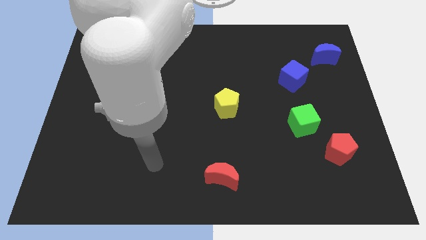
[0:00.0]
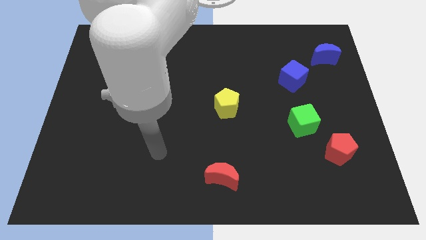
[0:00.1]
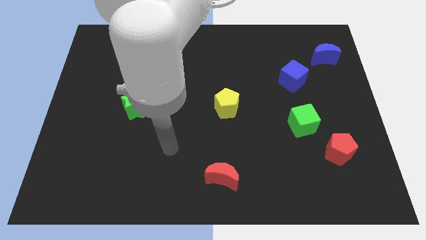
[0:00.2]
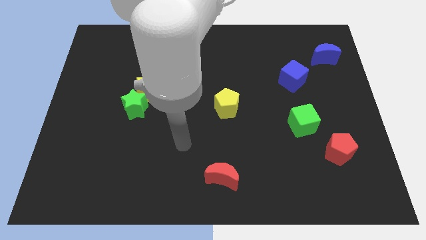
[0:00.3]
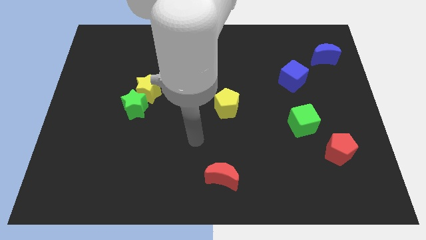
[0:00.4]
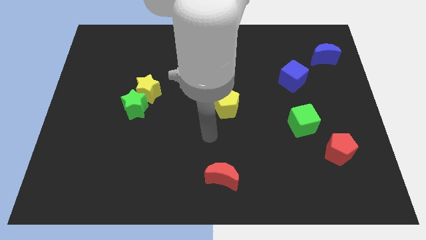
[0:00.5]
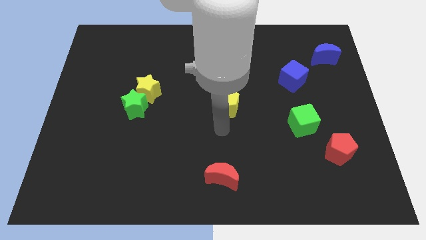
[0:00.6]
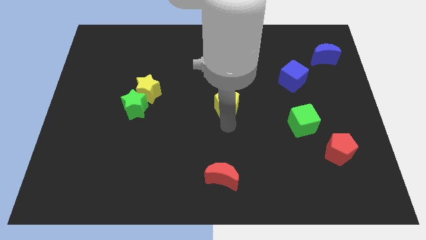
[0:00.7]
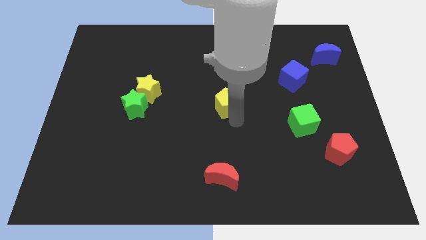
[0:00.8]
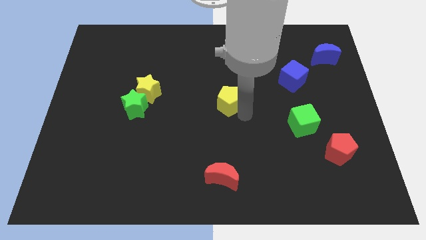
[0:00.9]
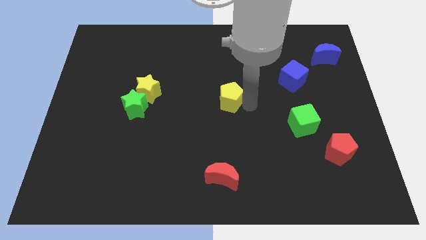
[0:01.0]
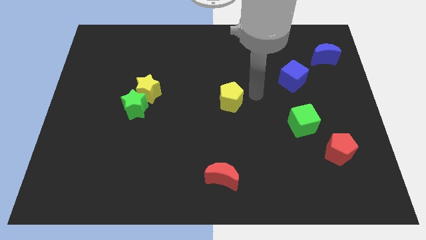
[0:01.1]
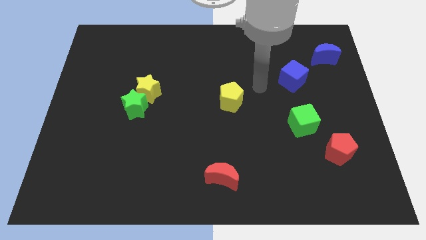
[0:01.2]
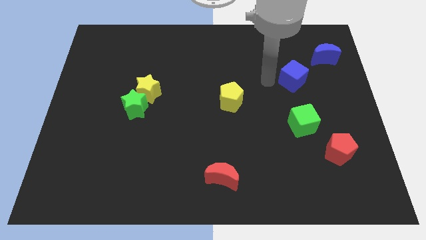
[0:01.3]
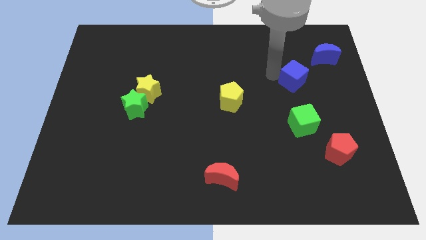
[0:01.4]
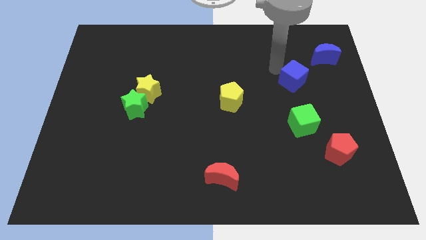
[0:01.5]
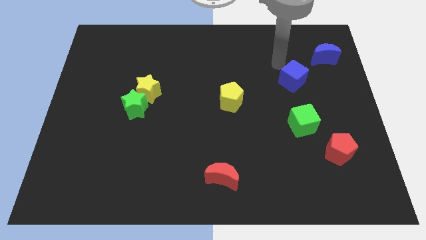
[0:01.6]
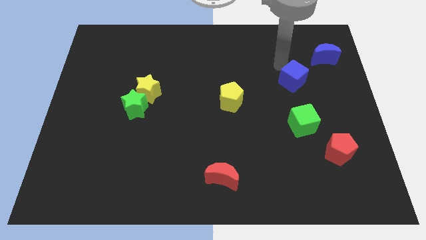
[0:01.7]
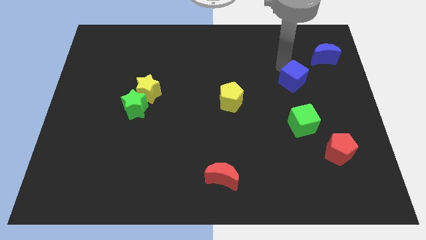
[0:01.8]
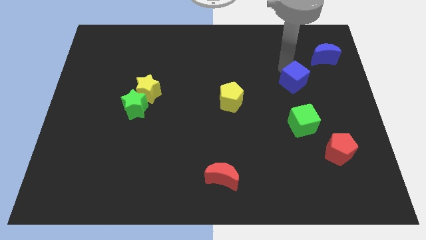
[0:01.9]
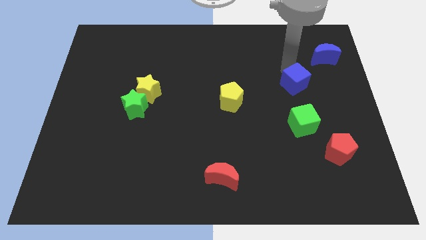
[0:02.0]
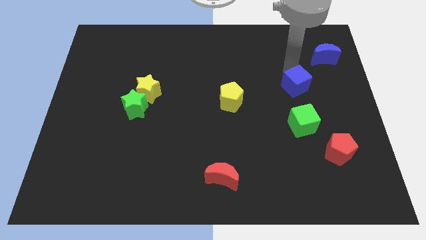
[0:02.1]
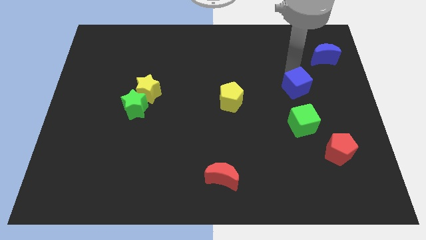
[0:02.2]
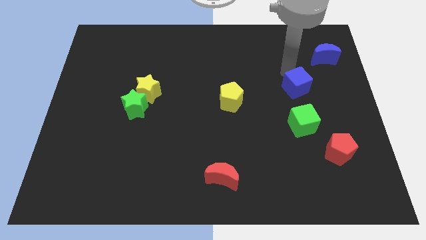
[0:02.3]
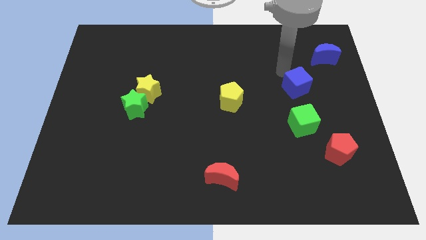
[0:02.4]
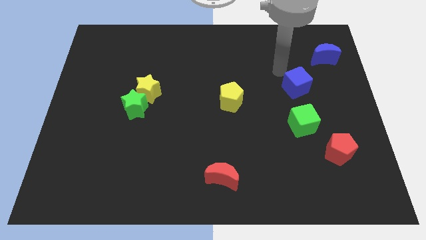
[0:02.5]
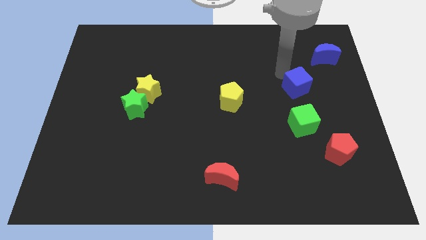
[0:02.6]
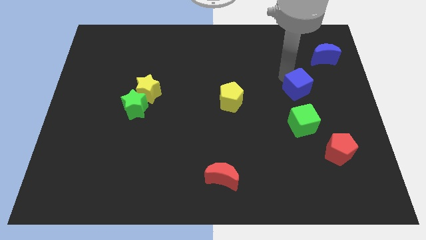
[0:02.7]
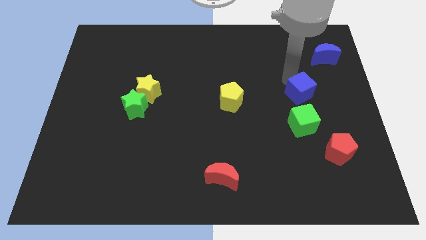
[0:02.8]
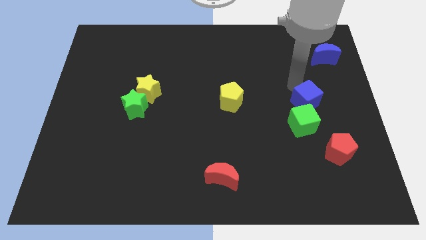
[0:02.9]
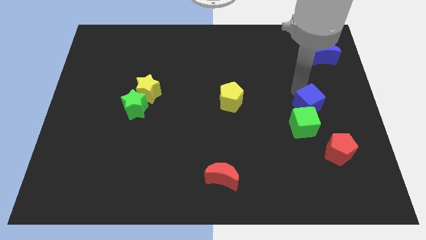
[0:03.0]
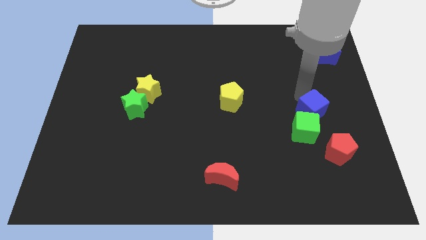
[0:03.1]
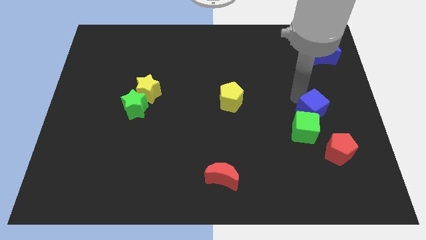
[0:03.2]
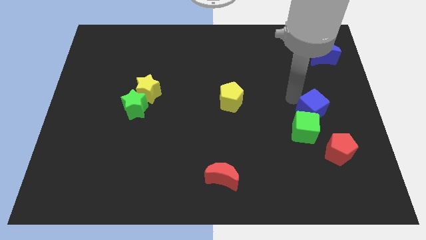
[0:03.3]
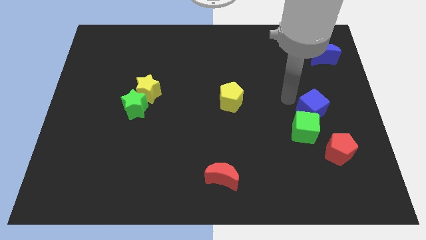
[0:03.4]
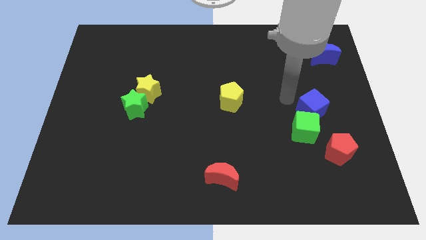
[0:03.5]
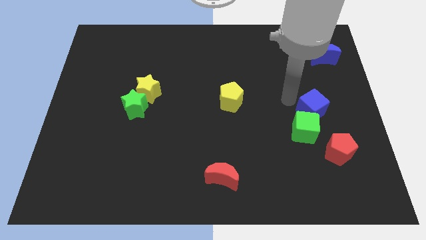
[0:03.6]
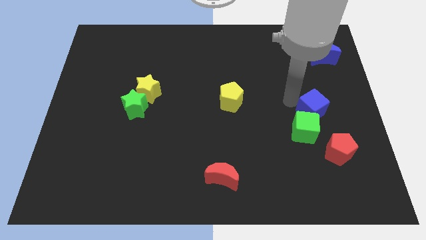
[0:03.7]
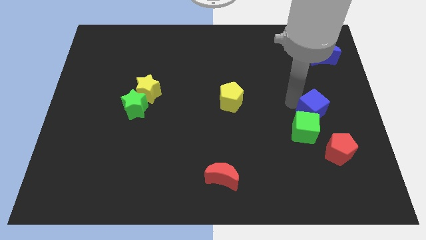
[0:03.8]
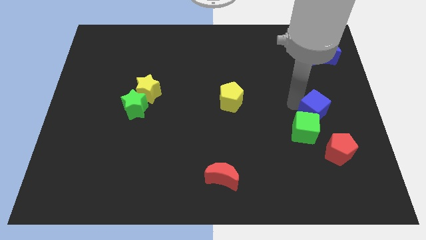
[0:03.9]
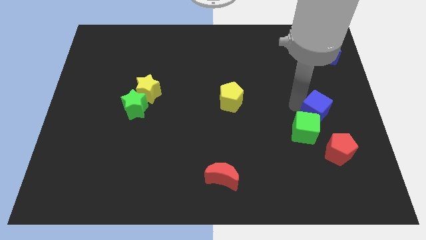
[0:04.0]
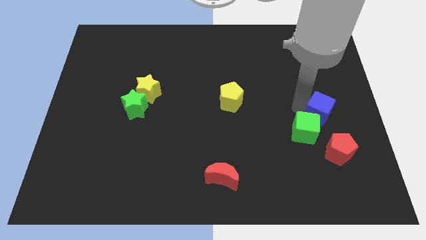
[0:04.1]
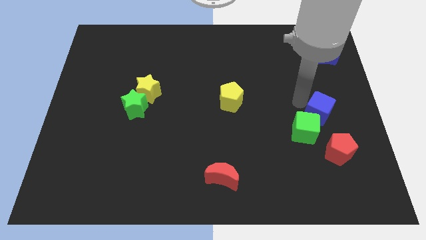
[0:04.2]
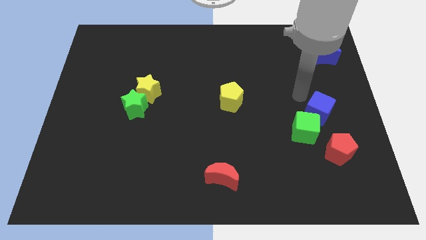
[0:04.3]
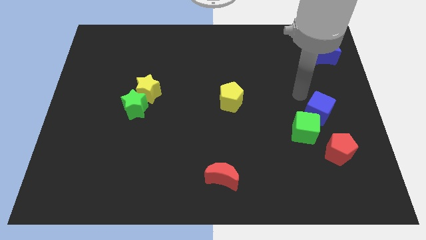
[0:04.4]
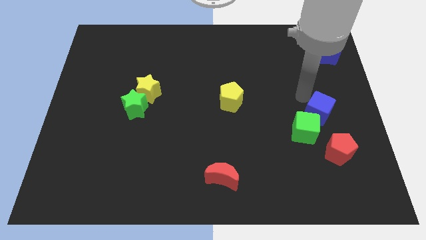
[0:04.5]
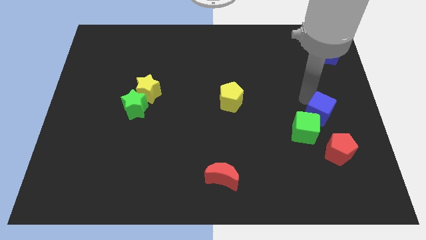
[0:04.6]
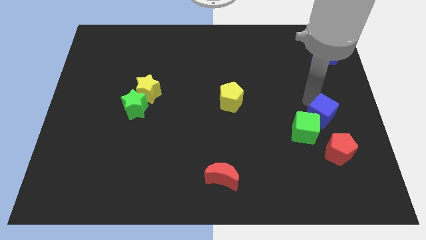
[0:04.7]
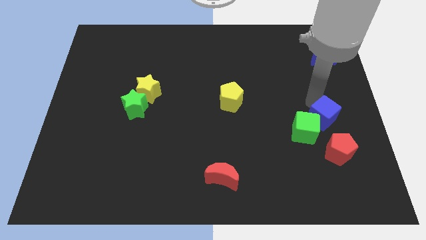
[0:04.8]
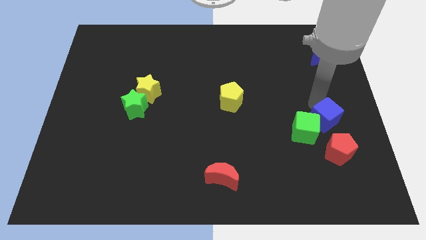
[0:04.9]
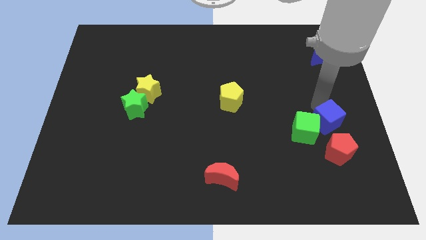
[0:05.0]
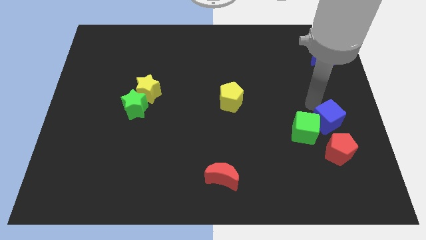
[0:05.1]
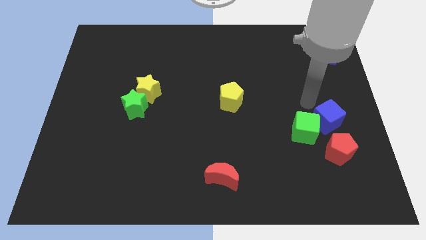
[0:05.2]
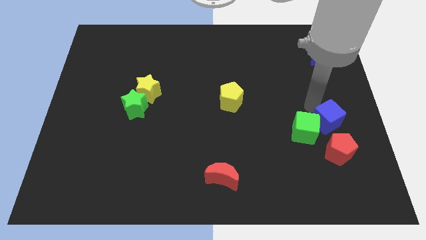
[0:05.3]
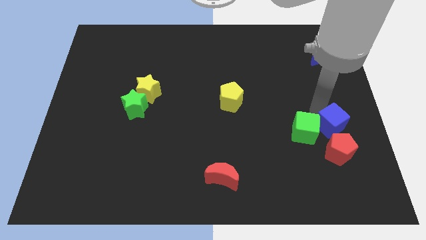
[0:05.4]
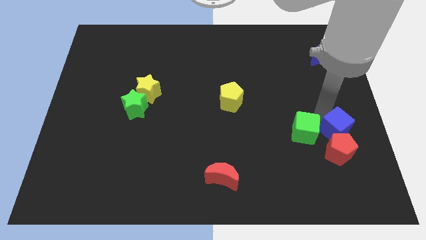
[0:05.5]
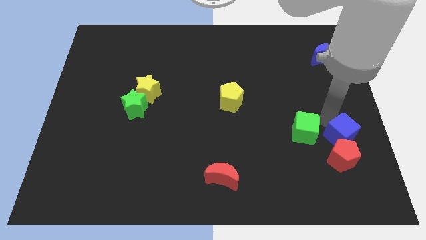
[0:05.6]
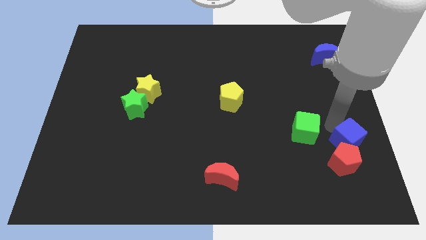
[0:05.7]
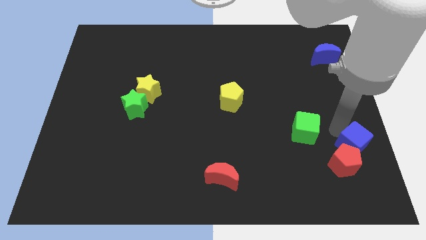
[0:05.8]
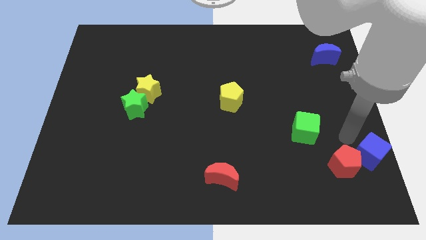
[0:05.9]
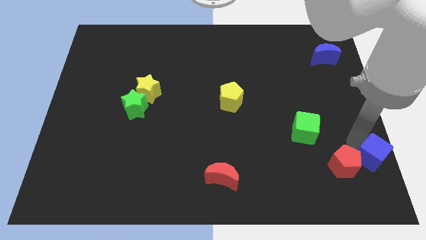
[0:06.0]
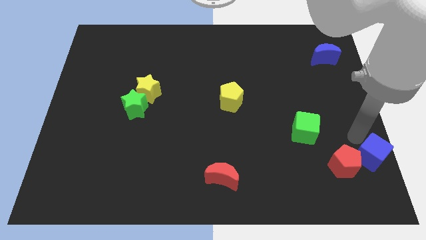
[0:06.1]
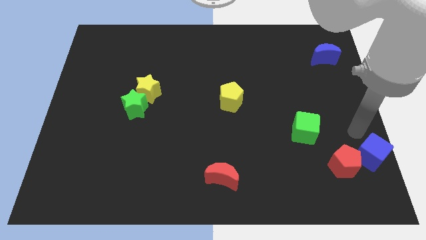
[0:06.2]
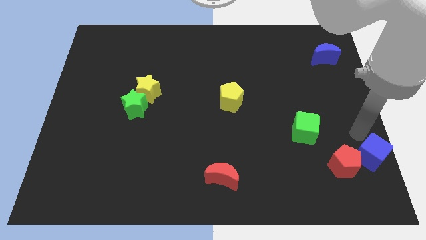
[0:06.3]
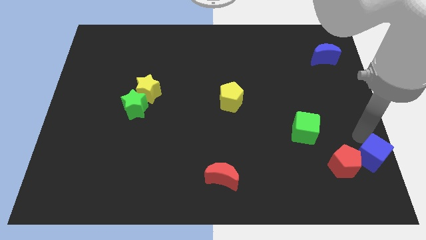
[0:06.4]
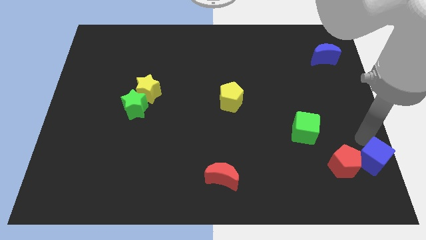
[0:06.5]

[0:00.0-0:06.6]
move the blue cube to the lower right corner

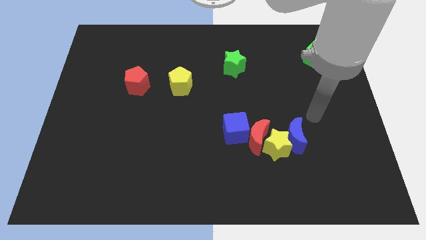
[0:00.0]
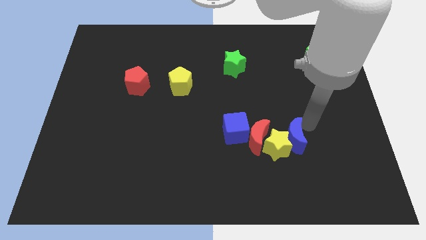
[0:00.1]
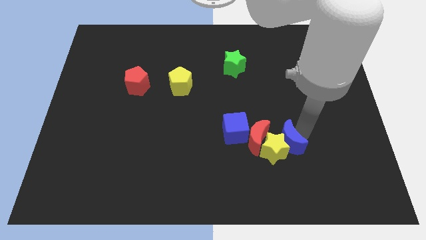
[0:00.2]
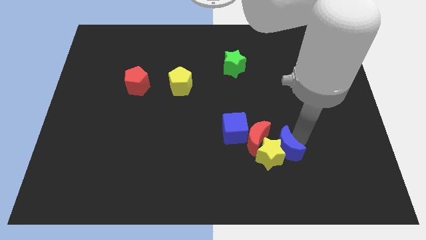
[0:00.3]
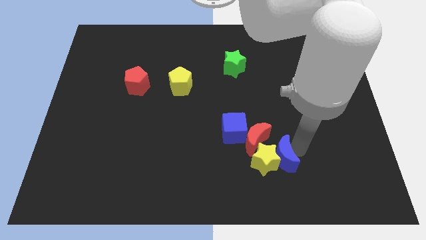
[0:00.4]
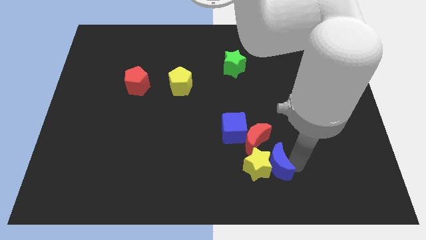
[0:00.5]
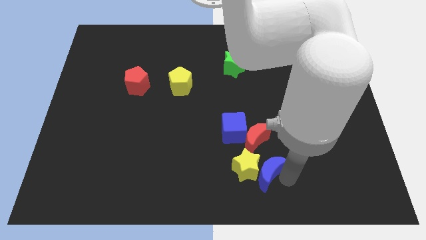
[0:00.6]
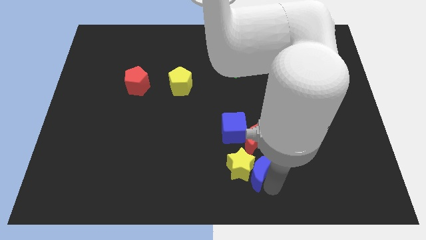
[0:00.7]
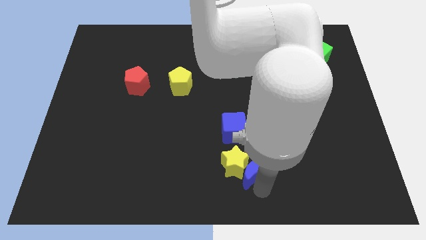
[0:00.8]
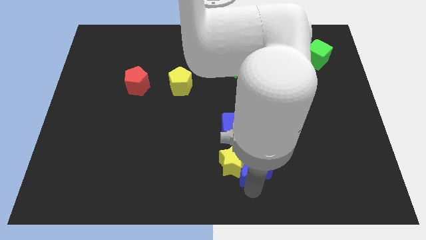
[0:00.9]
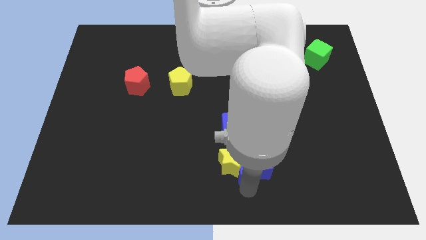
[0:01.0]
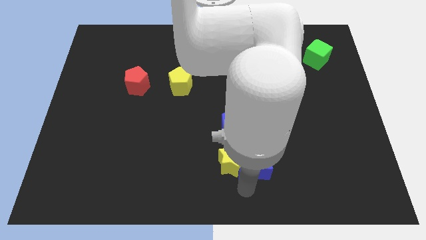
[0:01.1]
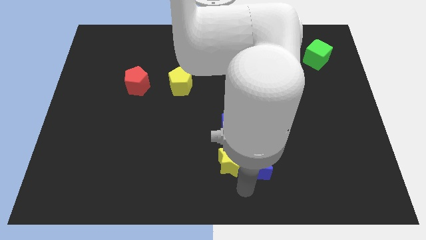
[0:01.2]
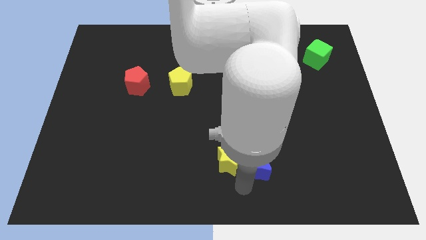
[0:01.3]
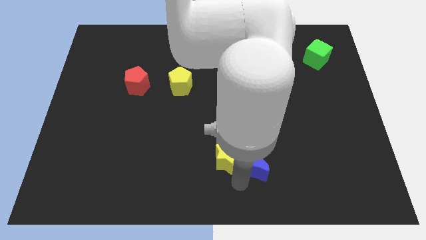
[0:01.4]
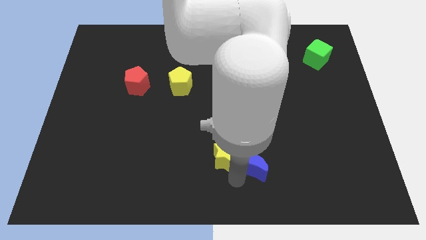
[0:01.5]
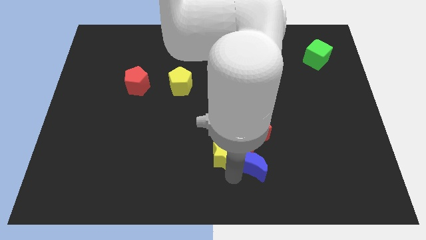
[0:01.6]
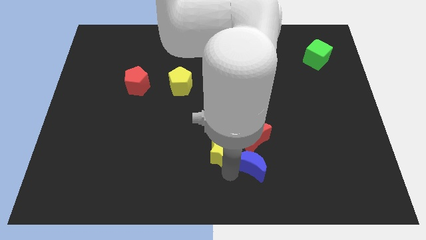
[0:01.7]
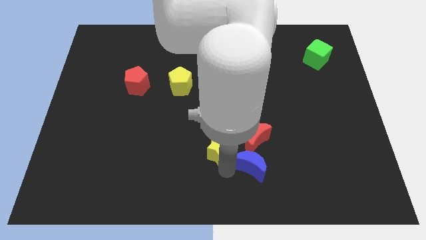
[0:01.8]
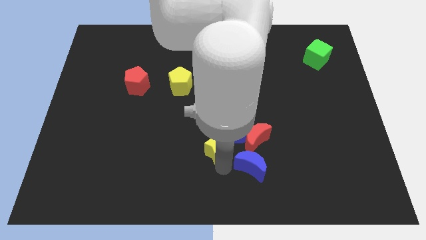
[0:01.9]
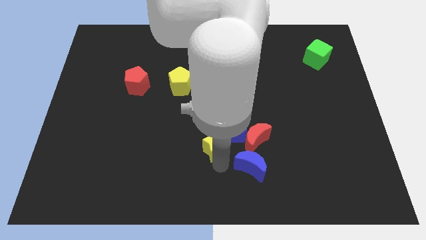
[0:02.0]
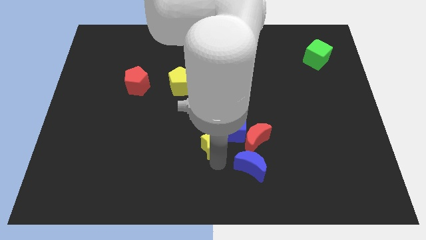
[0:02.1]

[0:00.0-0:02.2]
slide the yellow star to the center of the board
